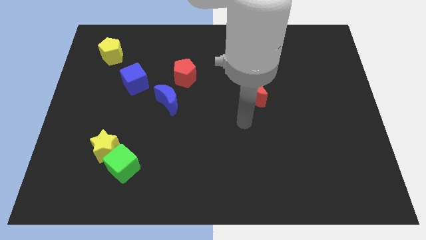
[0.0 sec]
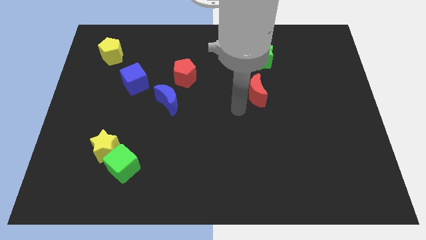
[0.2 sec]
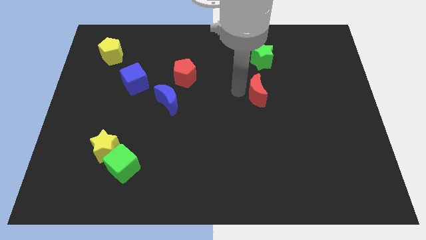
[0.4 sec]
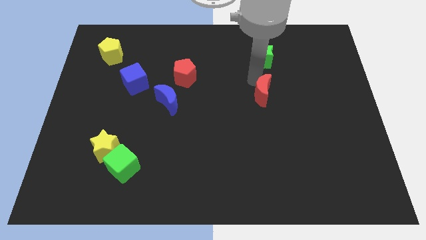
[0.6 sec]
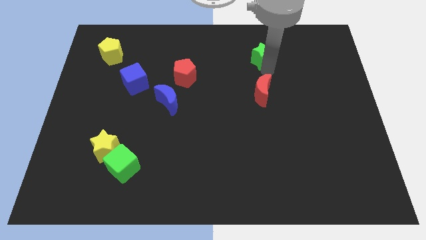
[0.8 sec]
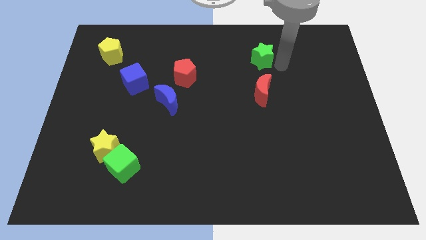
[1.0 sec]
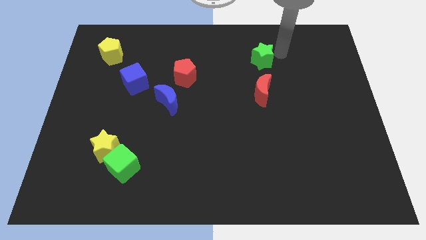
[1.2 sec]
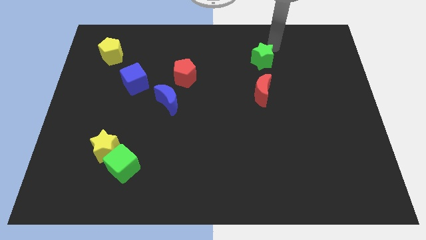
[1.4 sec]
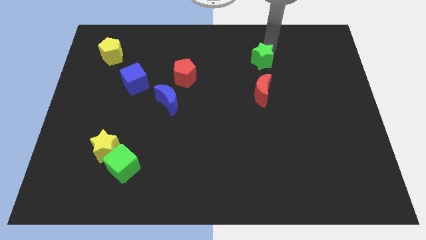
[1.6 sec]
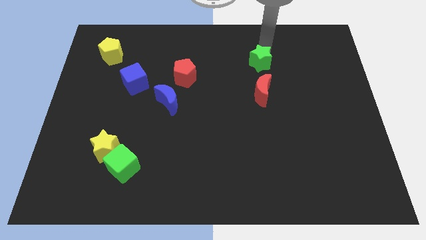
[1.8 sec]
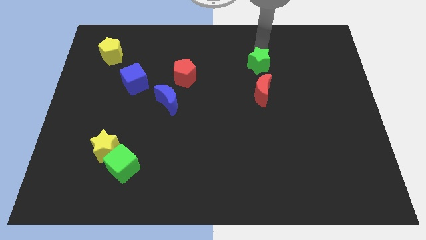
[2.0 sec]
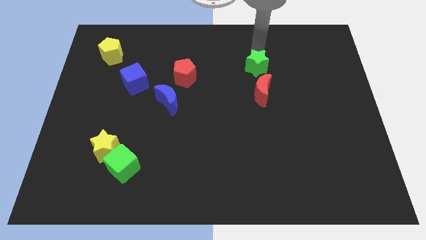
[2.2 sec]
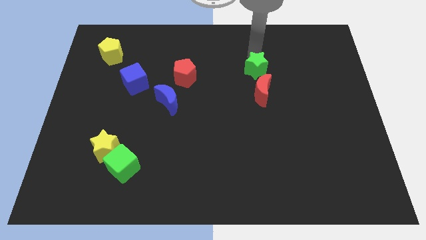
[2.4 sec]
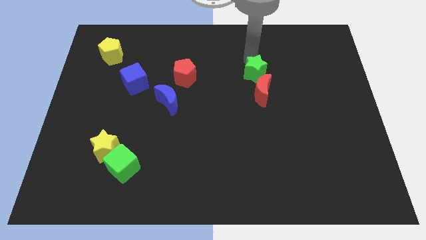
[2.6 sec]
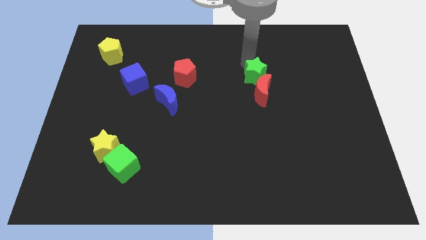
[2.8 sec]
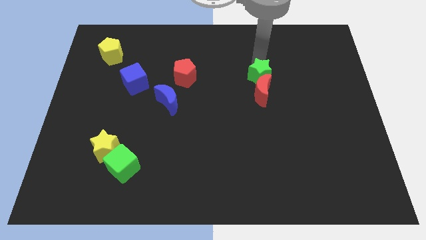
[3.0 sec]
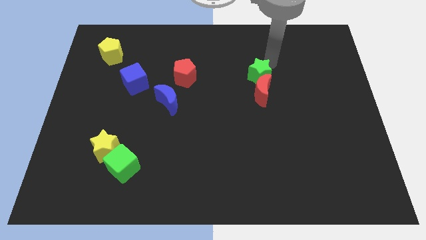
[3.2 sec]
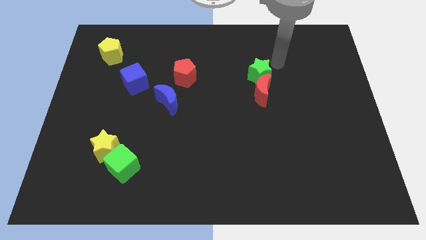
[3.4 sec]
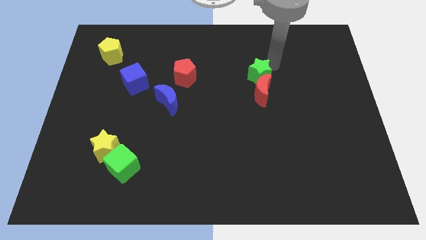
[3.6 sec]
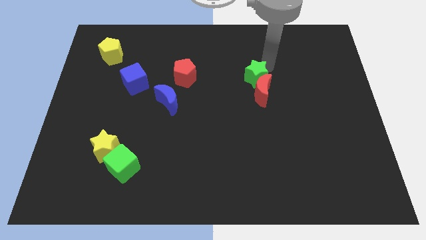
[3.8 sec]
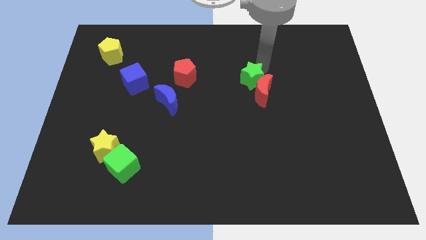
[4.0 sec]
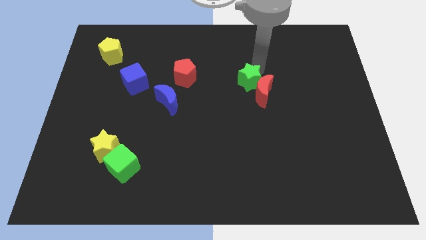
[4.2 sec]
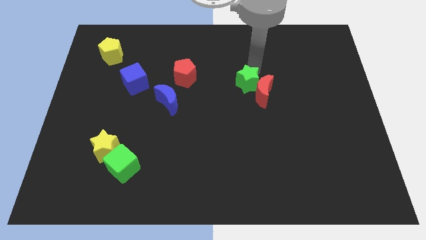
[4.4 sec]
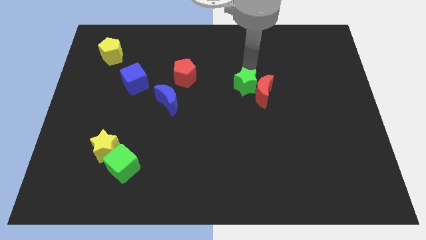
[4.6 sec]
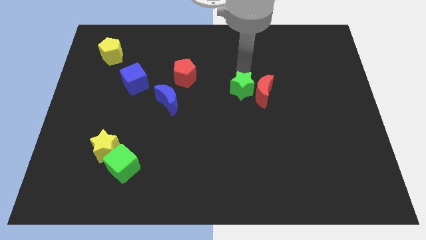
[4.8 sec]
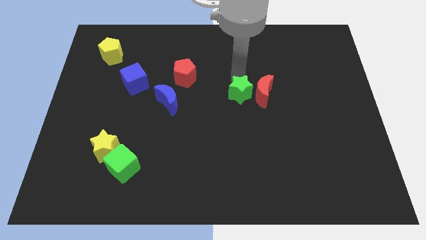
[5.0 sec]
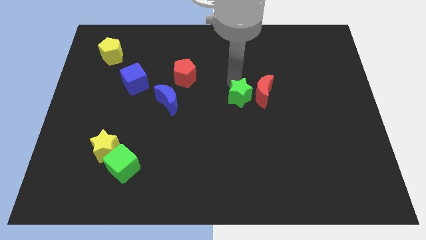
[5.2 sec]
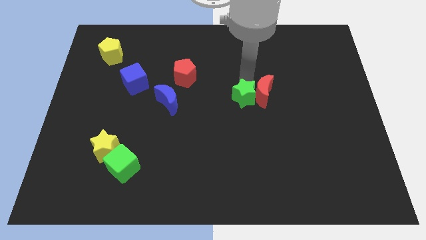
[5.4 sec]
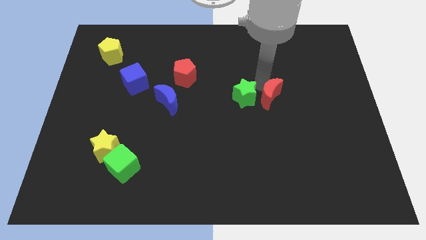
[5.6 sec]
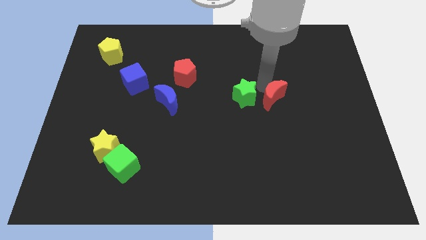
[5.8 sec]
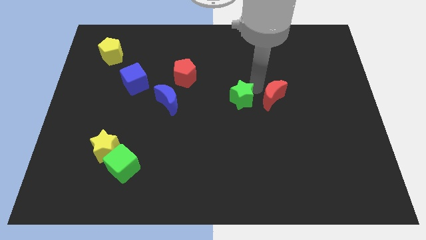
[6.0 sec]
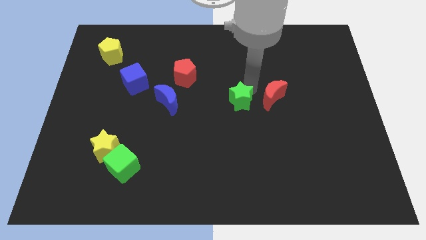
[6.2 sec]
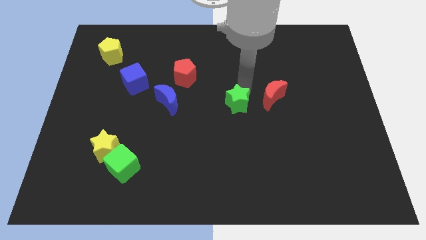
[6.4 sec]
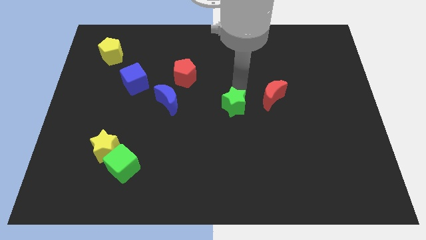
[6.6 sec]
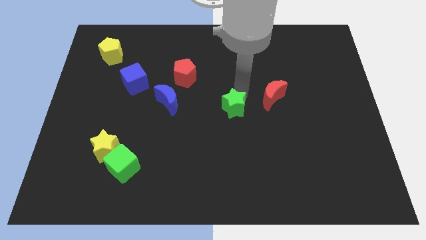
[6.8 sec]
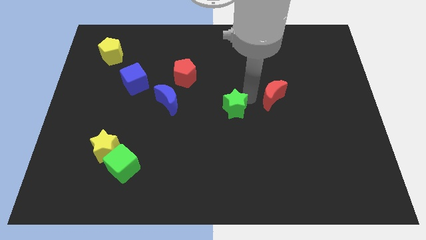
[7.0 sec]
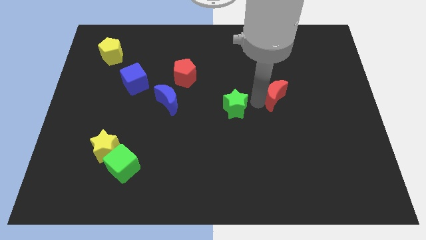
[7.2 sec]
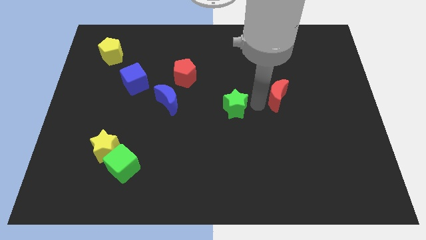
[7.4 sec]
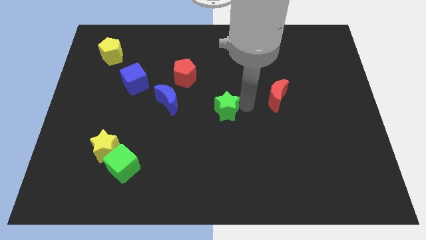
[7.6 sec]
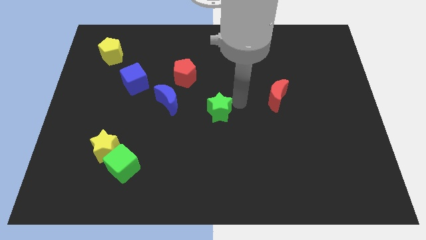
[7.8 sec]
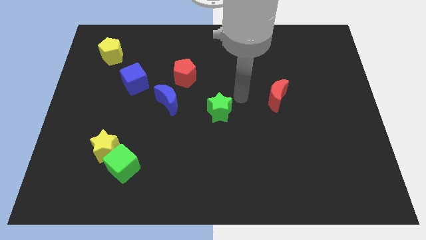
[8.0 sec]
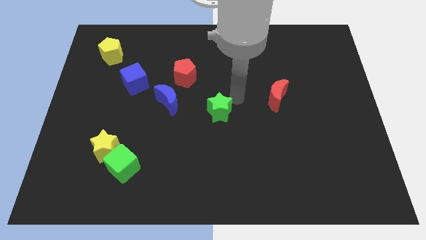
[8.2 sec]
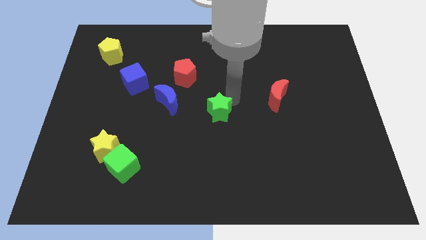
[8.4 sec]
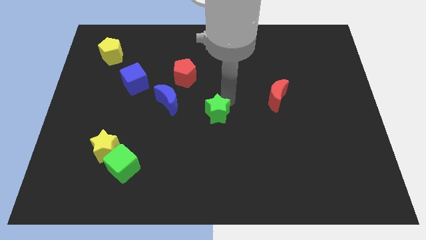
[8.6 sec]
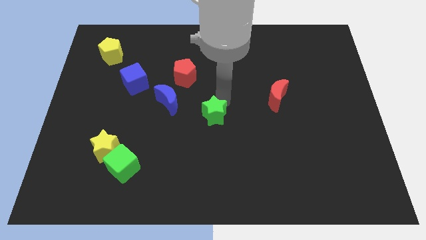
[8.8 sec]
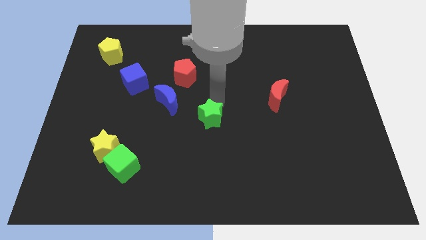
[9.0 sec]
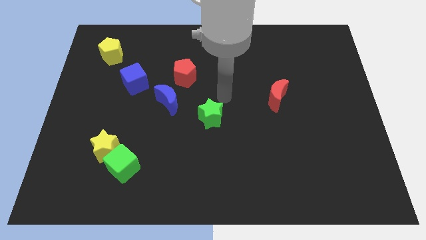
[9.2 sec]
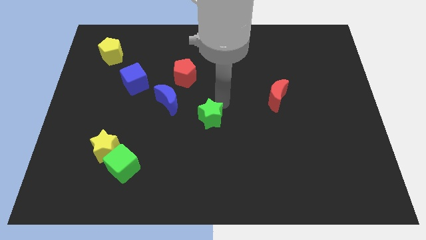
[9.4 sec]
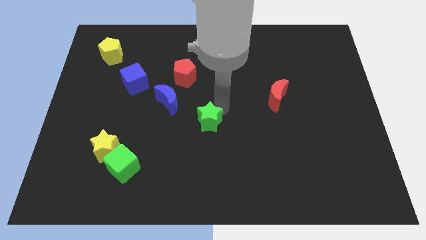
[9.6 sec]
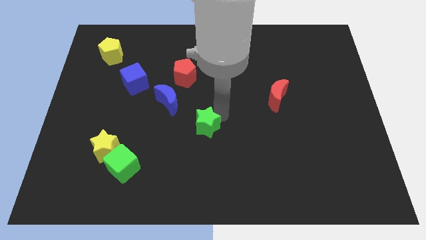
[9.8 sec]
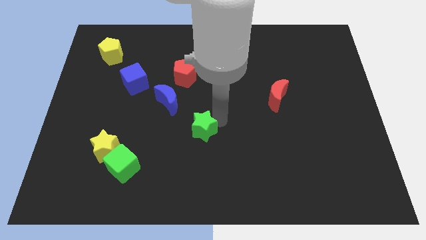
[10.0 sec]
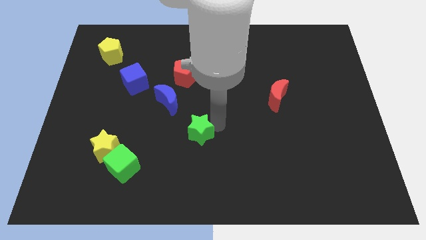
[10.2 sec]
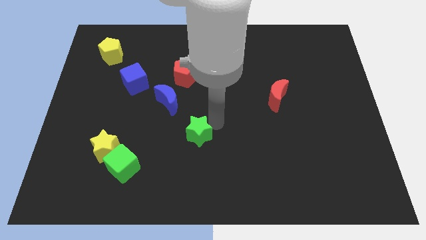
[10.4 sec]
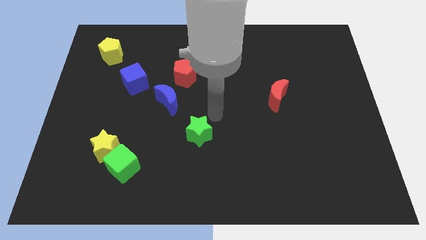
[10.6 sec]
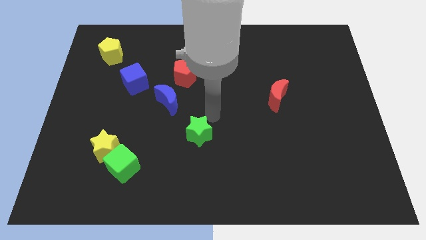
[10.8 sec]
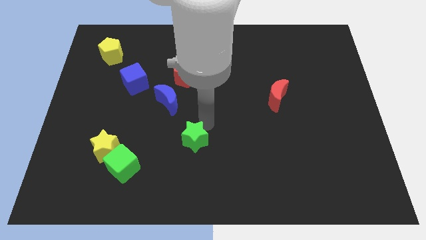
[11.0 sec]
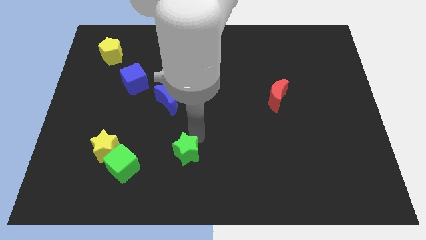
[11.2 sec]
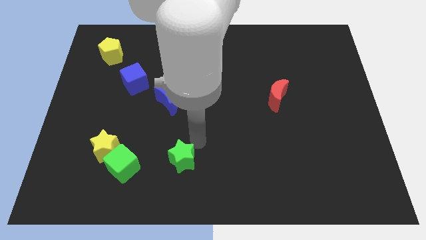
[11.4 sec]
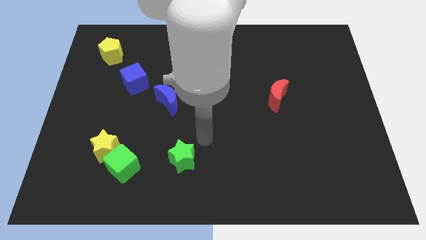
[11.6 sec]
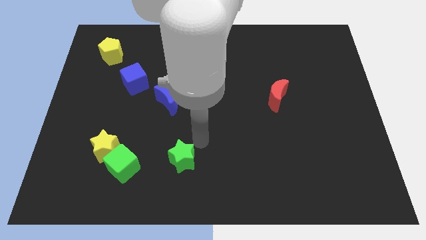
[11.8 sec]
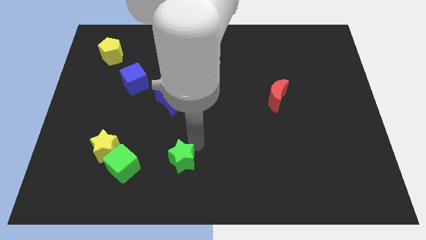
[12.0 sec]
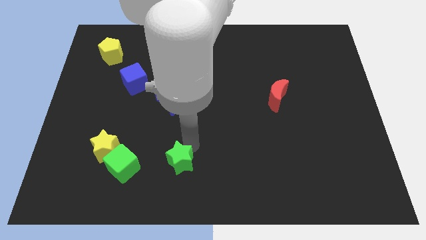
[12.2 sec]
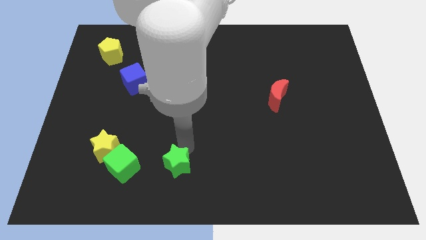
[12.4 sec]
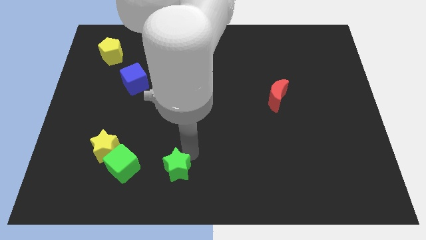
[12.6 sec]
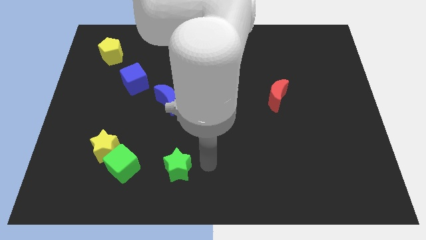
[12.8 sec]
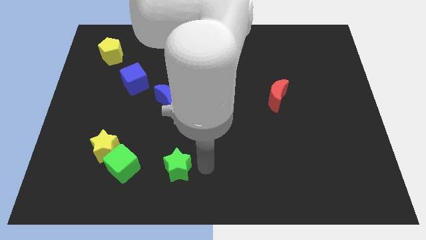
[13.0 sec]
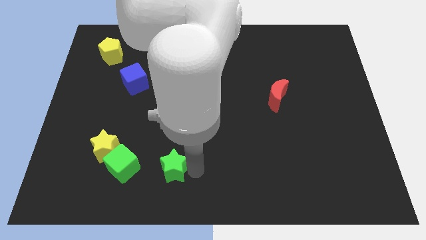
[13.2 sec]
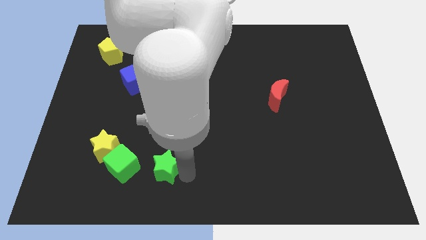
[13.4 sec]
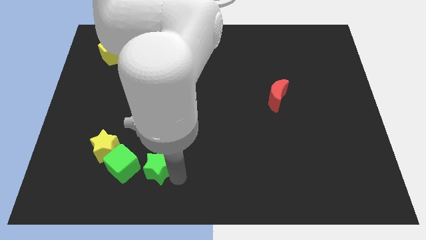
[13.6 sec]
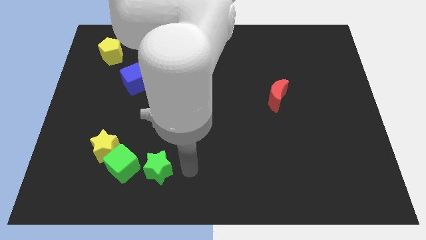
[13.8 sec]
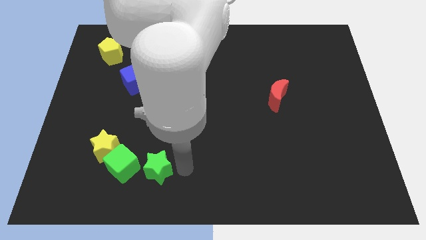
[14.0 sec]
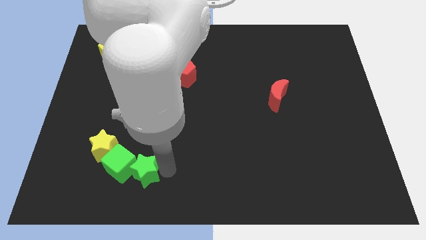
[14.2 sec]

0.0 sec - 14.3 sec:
slide the green star to the bottom right side of the yellow star

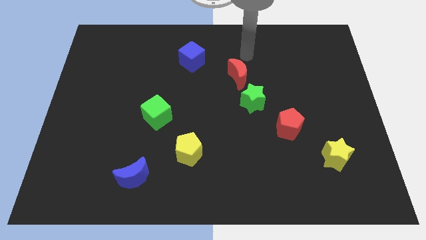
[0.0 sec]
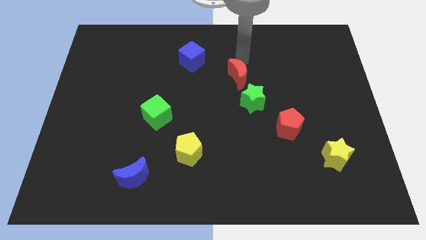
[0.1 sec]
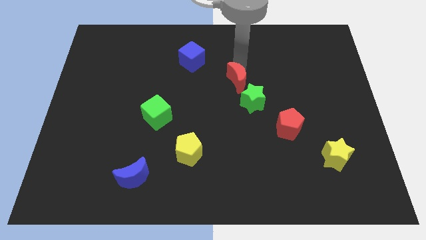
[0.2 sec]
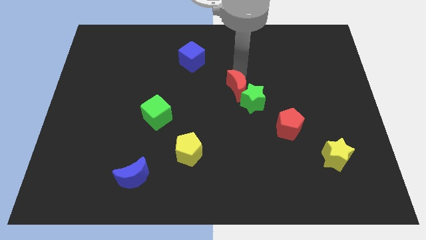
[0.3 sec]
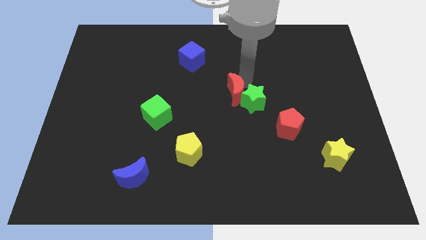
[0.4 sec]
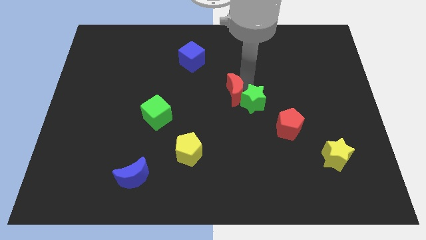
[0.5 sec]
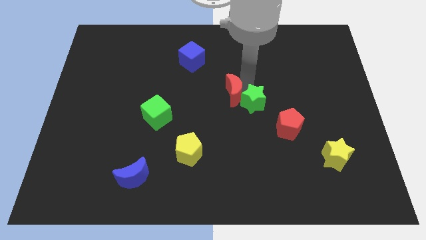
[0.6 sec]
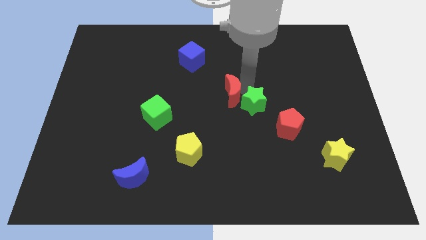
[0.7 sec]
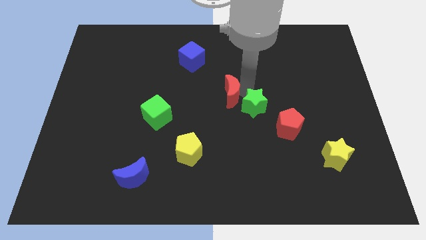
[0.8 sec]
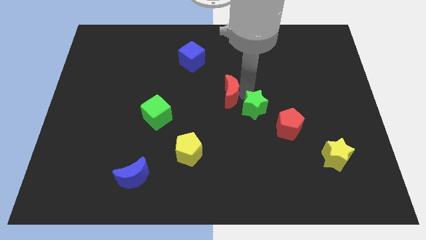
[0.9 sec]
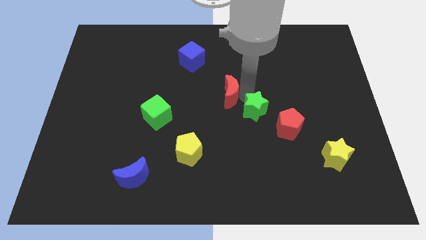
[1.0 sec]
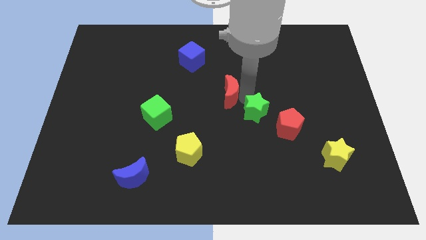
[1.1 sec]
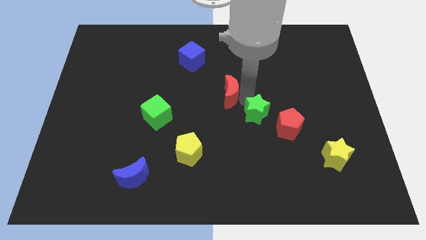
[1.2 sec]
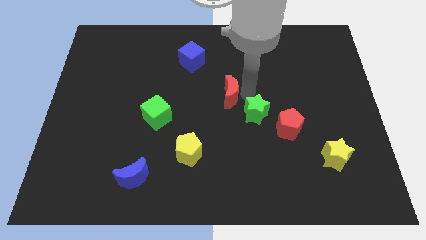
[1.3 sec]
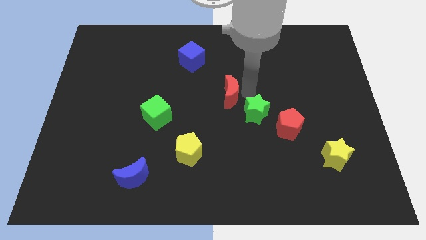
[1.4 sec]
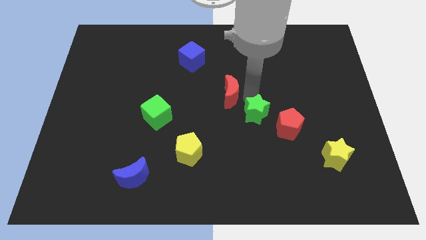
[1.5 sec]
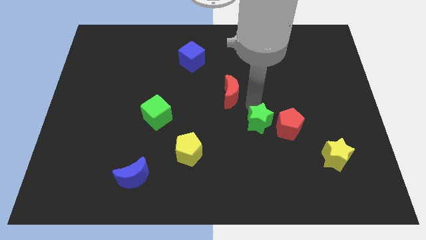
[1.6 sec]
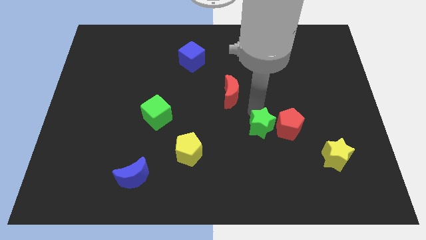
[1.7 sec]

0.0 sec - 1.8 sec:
move the green star to the bottom left side of the red pentagon
